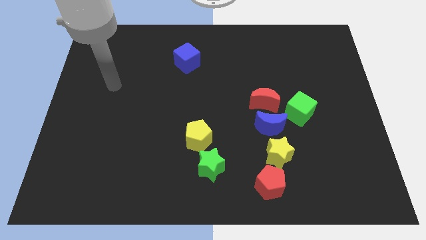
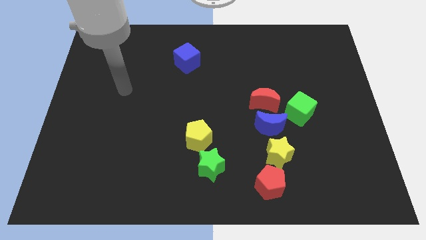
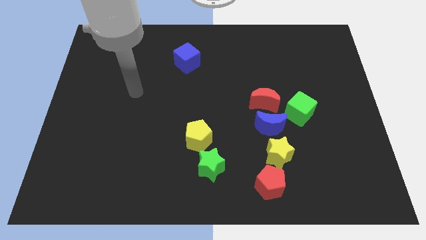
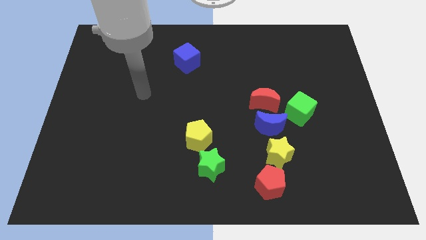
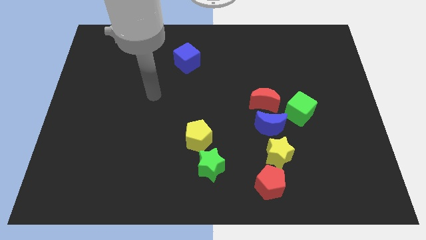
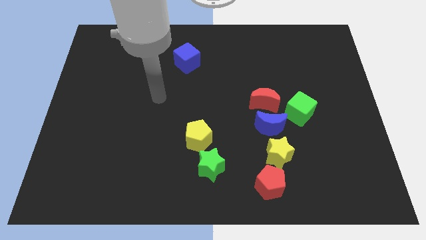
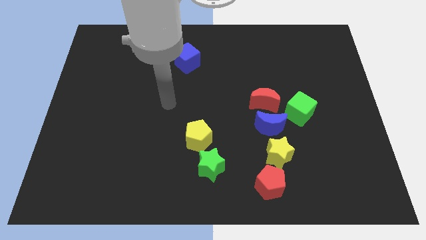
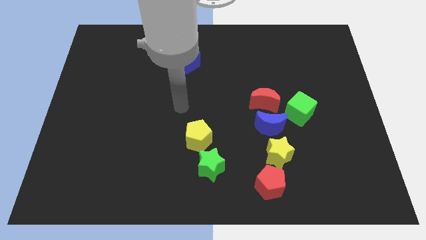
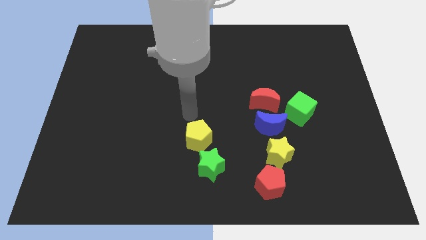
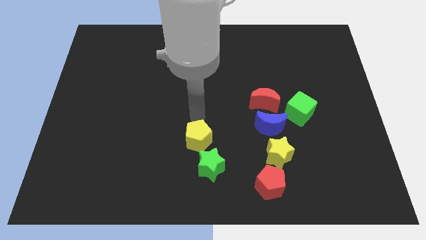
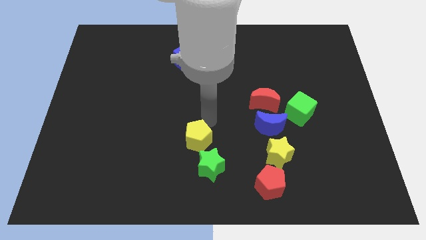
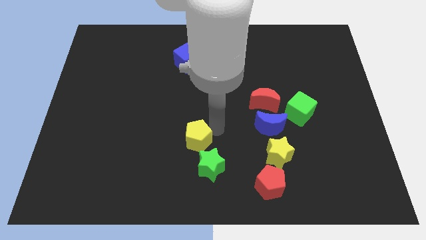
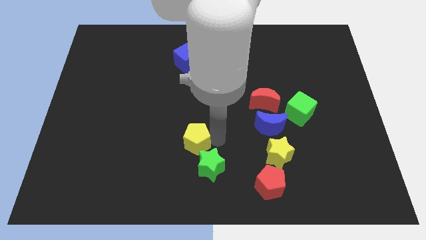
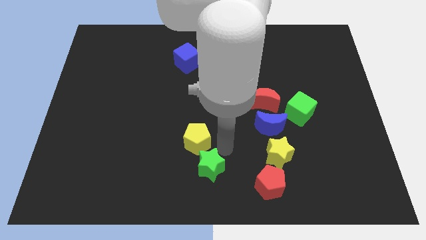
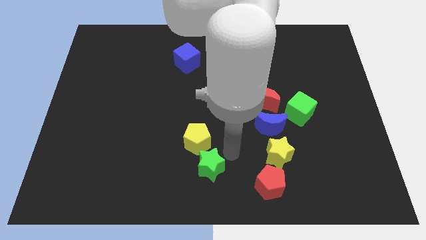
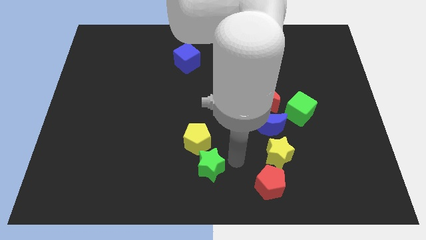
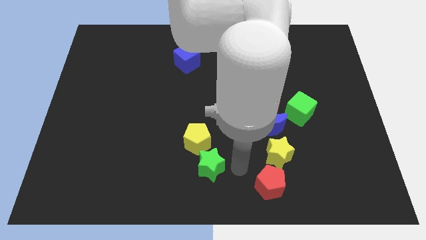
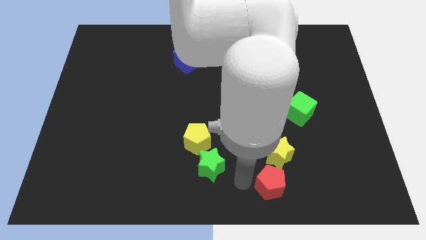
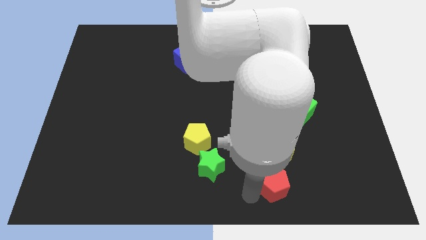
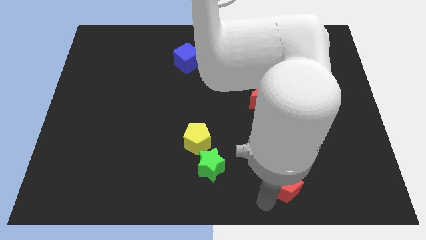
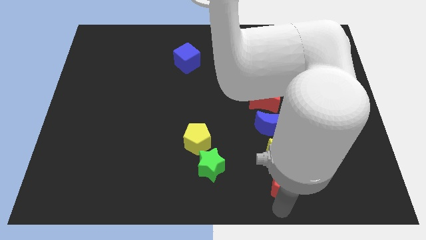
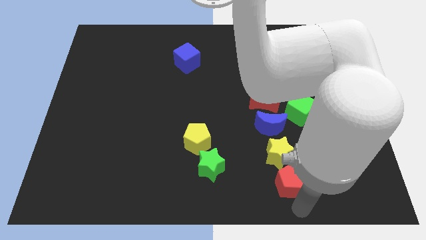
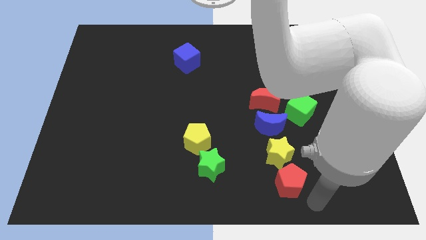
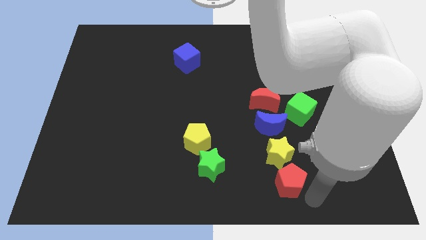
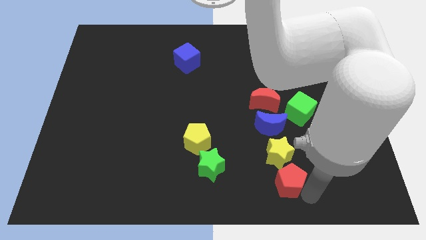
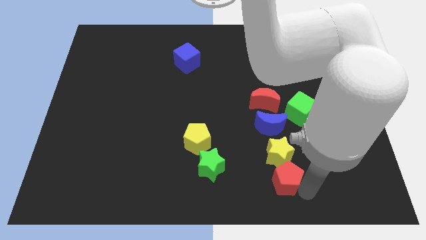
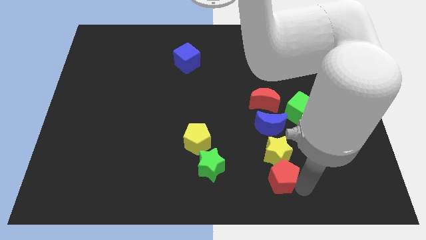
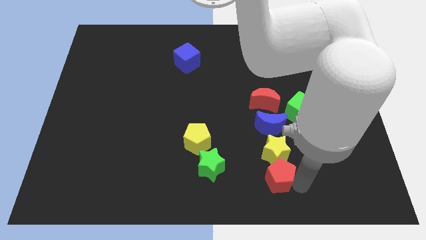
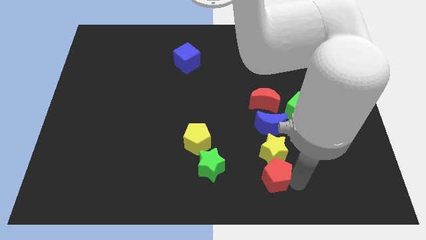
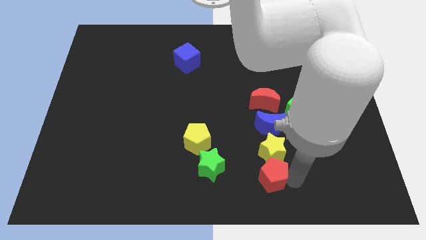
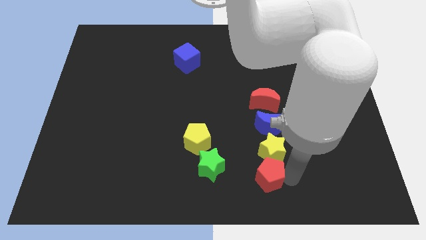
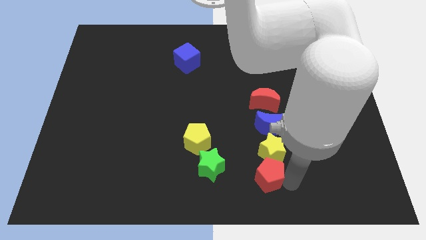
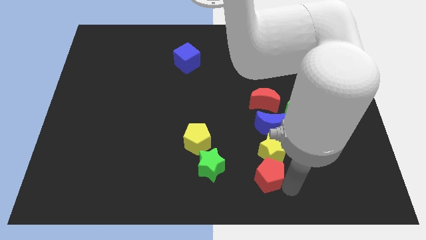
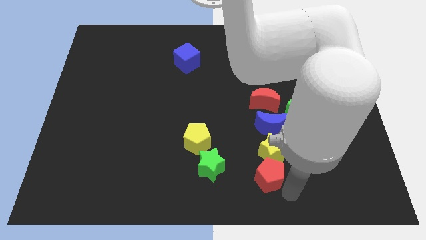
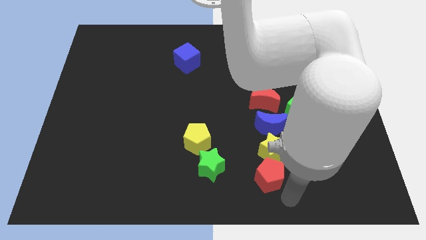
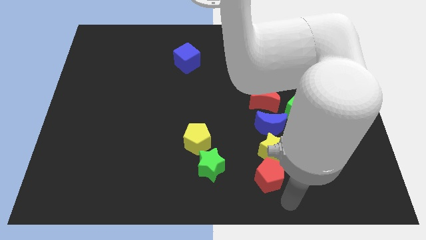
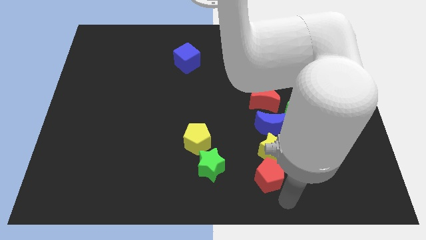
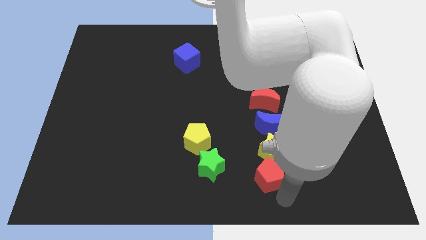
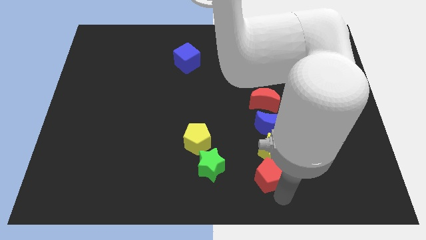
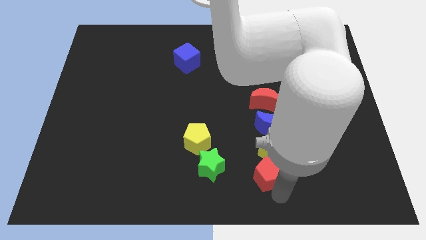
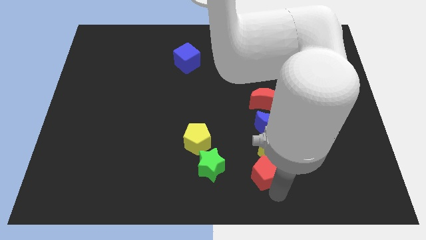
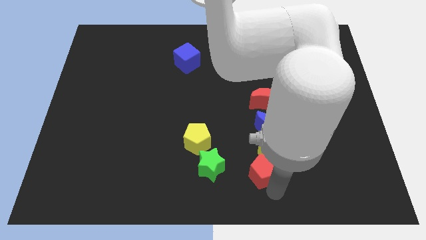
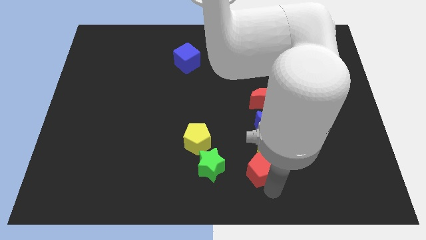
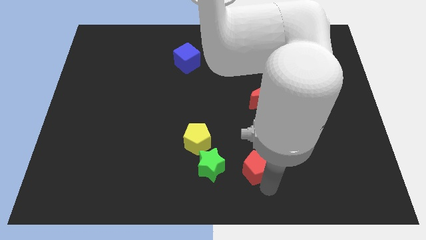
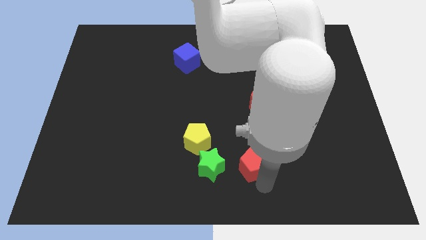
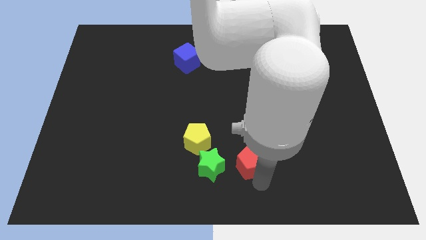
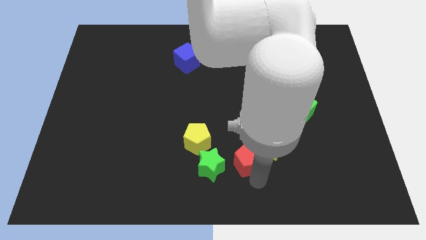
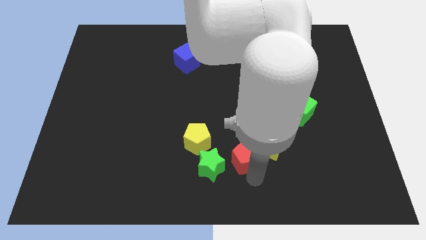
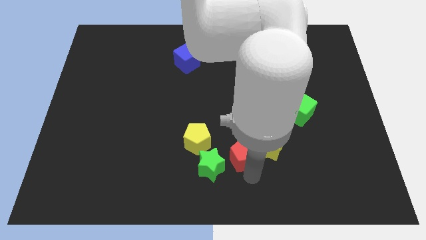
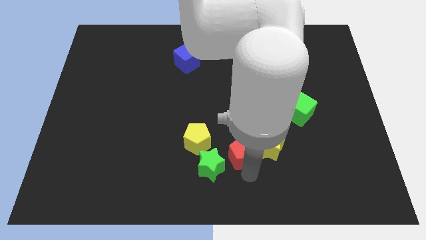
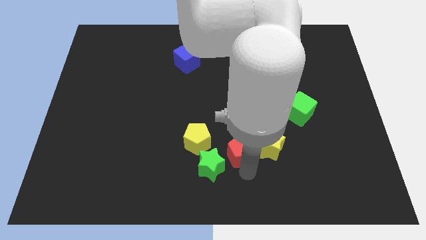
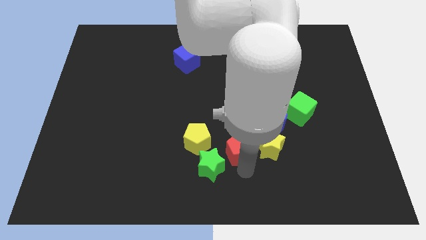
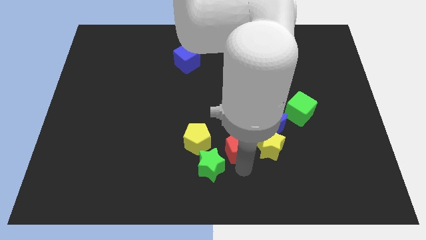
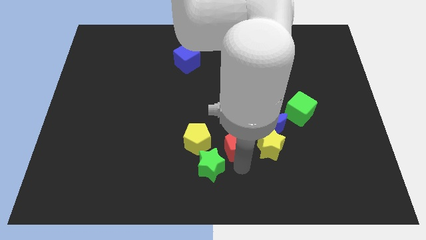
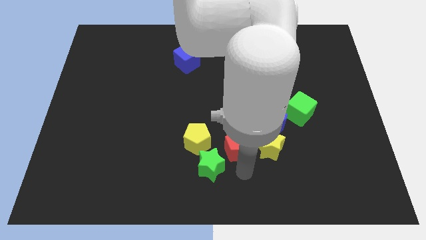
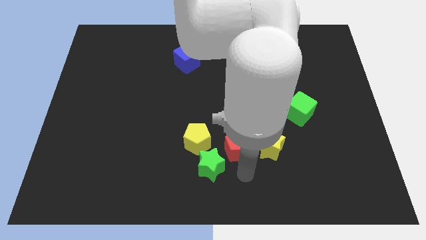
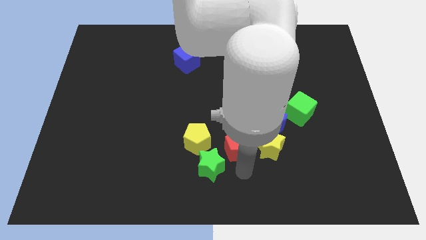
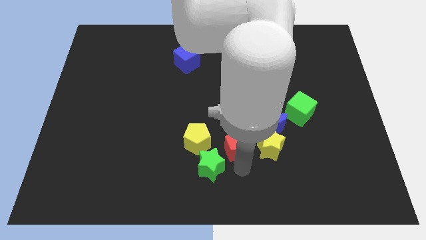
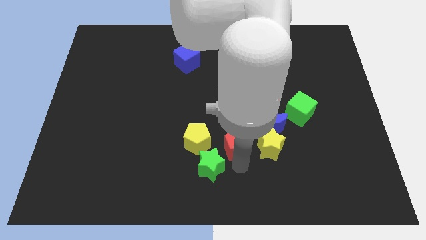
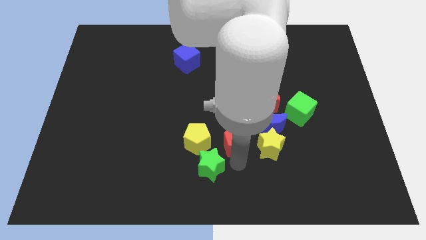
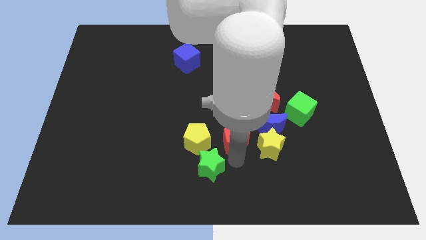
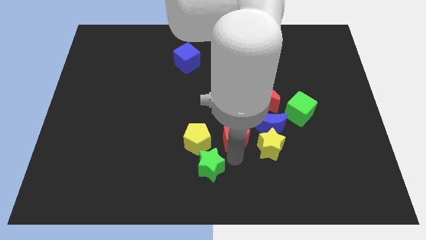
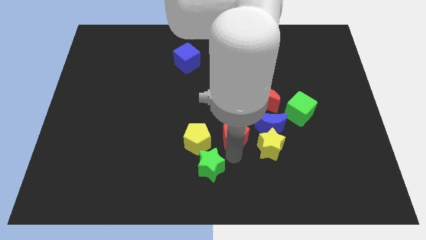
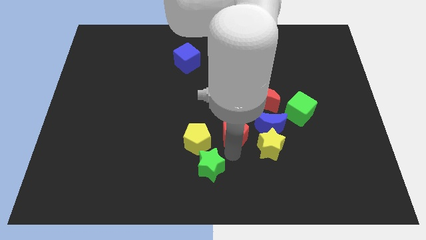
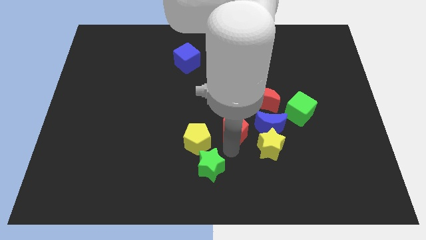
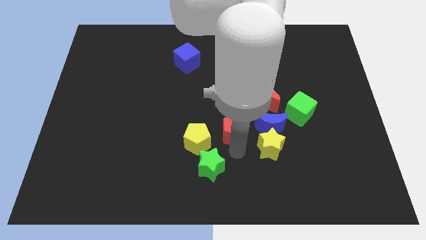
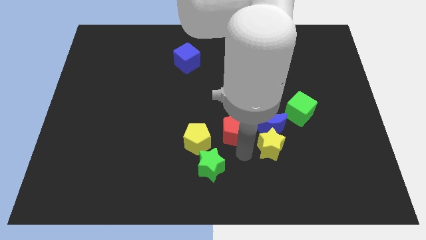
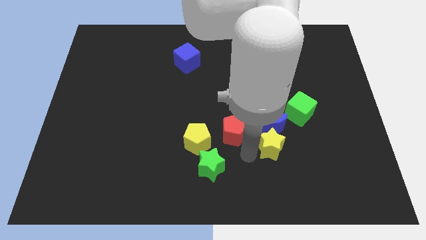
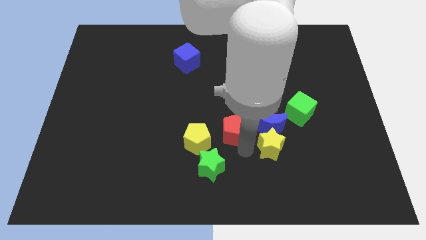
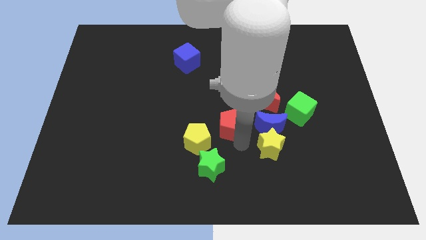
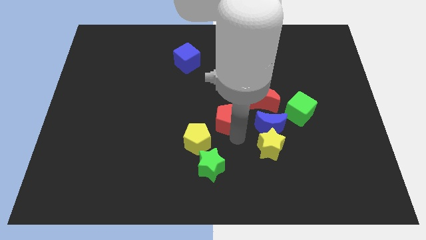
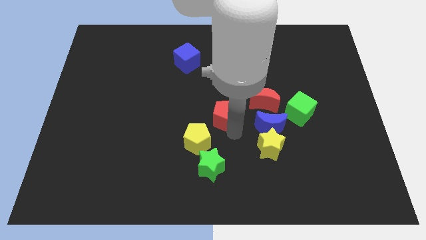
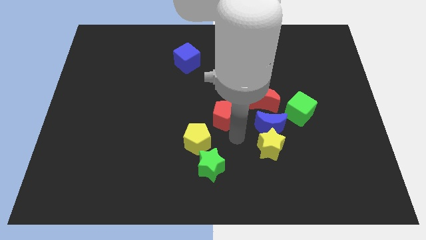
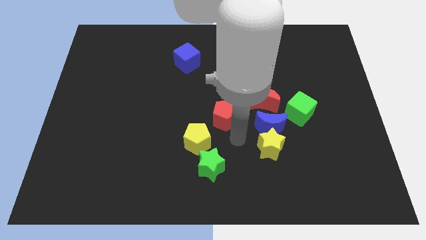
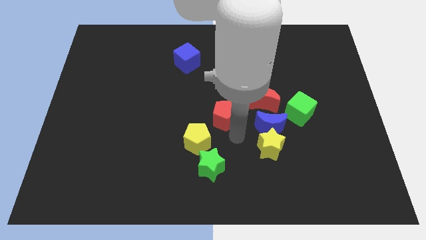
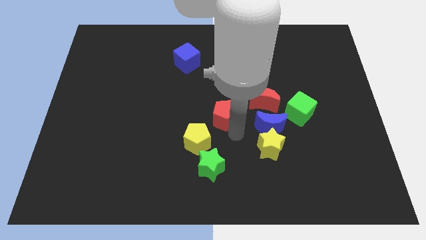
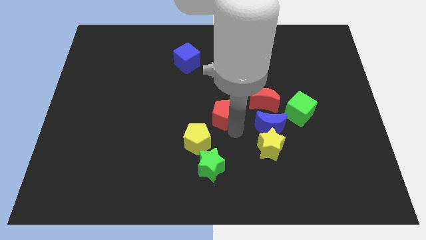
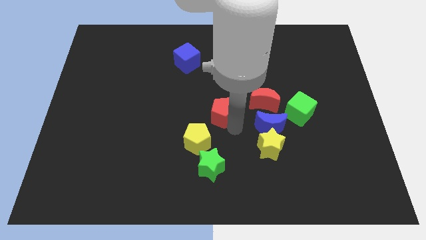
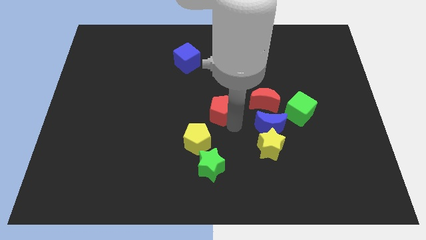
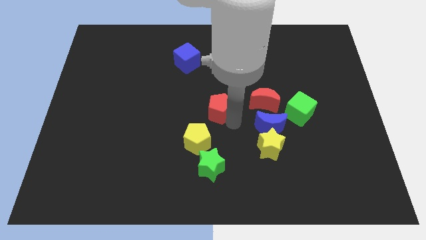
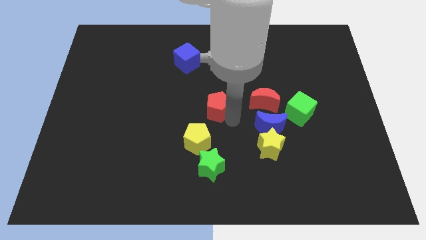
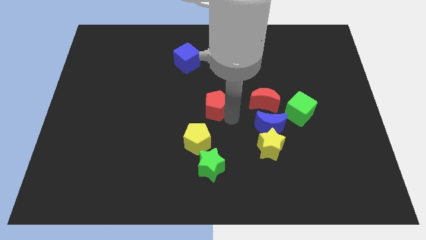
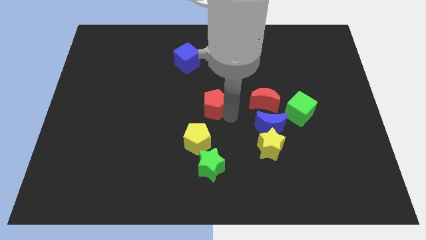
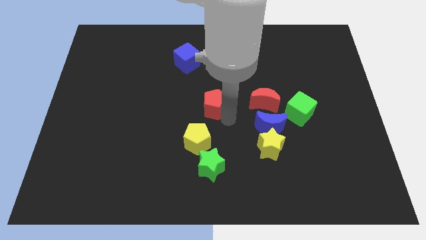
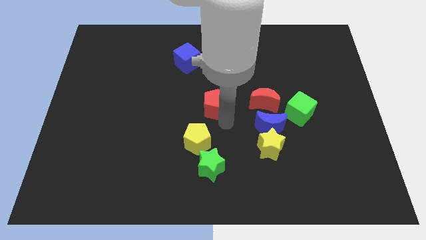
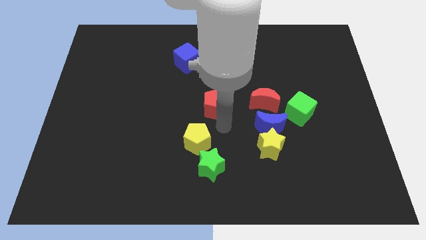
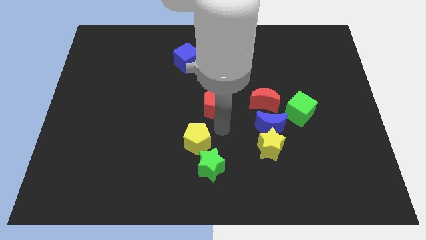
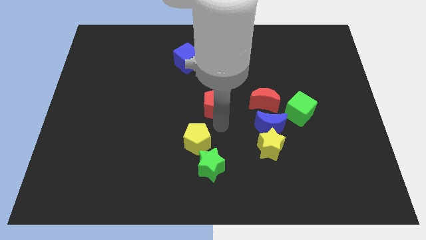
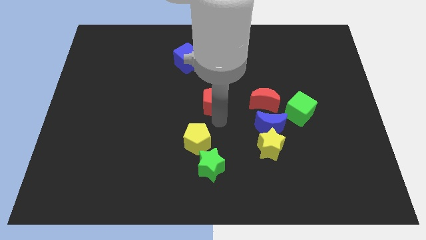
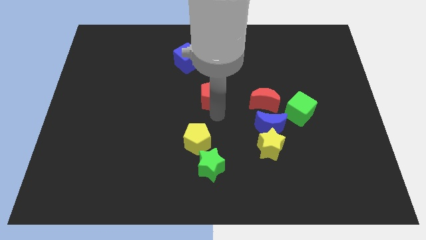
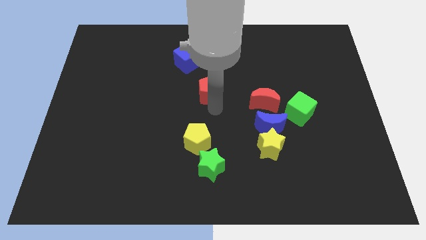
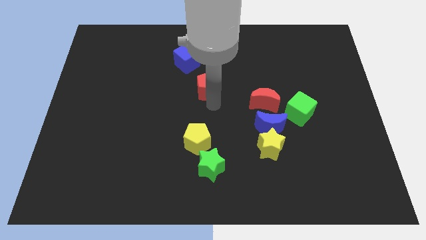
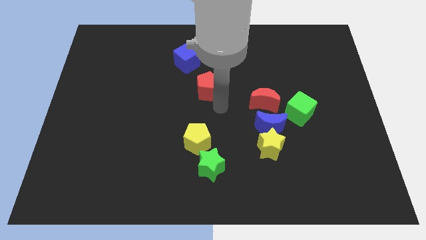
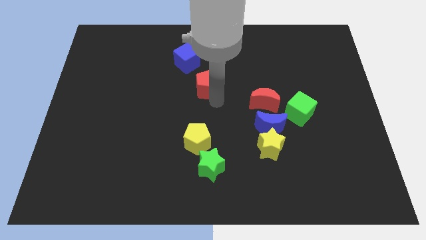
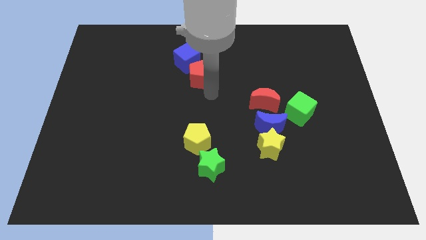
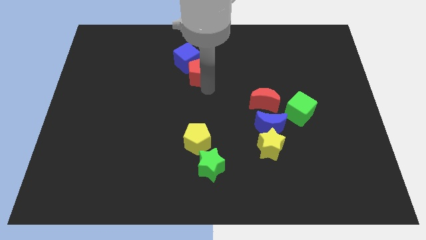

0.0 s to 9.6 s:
slide the red pentagon towards the blue cube
